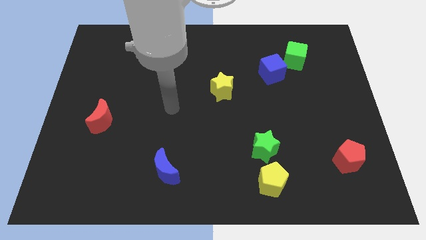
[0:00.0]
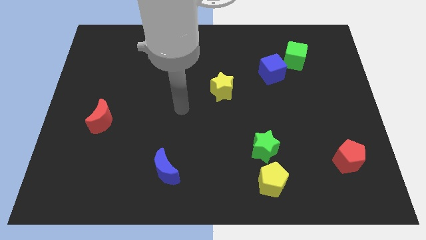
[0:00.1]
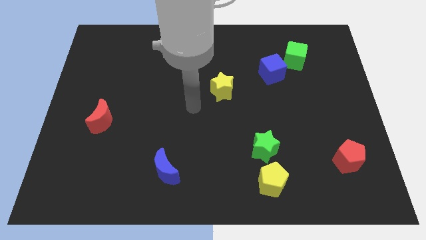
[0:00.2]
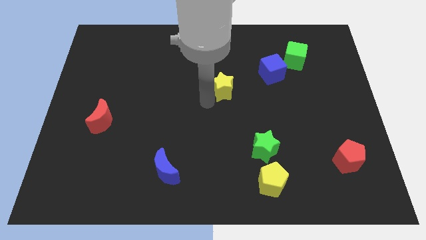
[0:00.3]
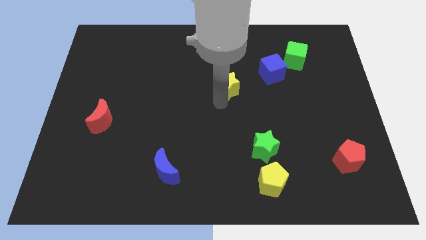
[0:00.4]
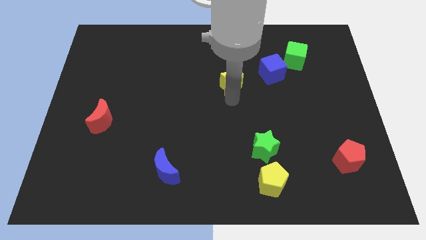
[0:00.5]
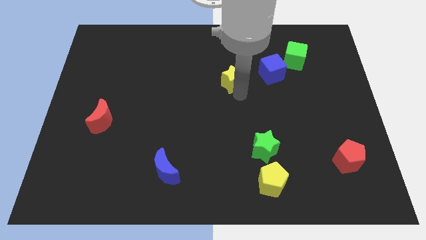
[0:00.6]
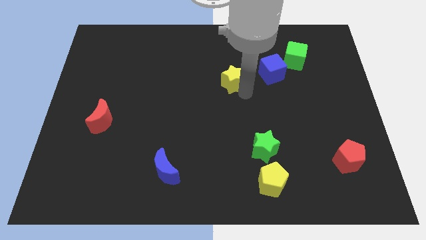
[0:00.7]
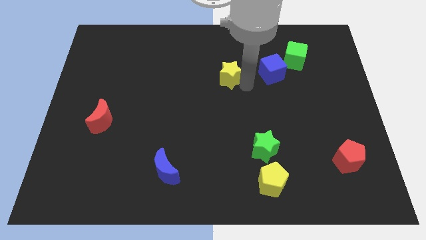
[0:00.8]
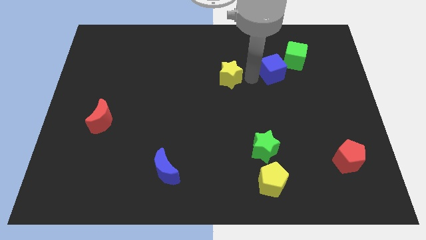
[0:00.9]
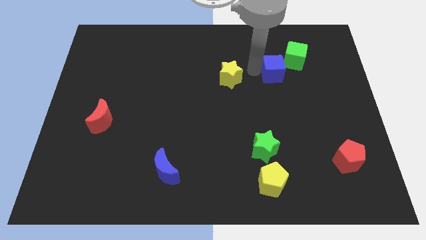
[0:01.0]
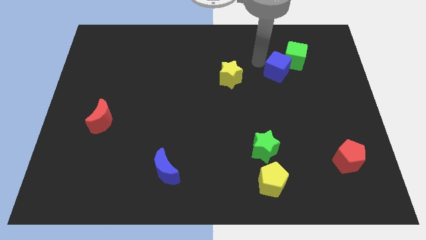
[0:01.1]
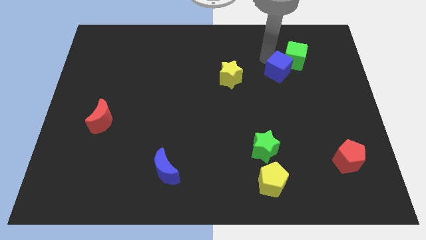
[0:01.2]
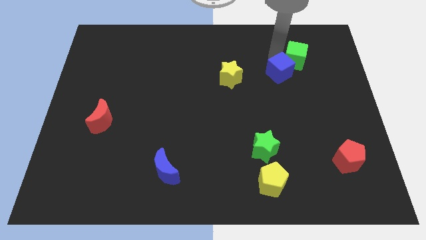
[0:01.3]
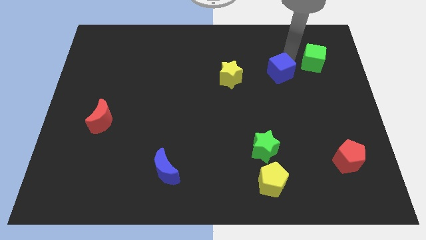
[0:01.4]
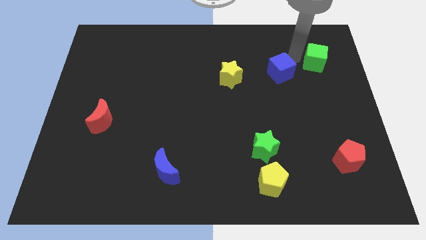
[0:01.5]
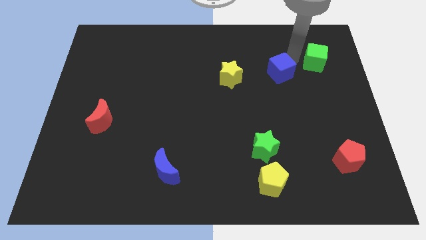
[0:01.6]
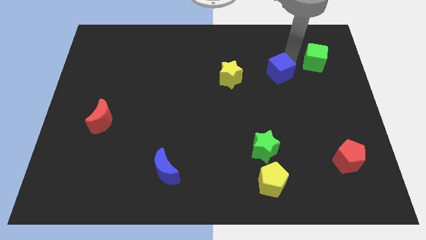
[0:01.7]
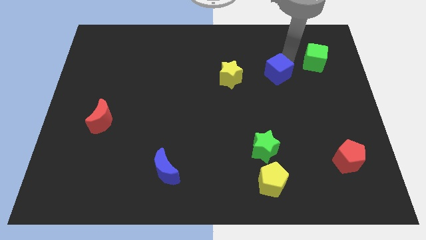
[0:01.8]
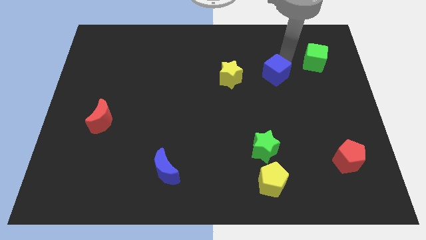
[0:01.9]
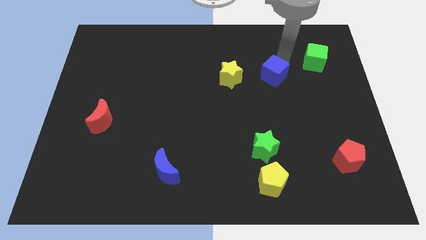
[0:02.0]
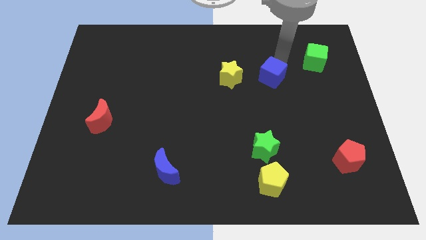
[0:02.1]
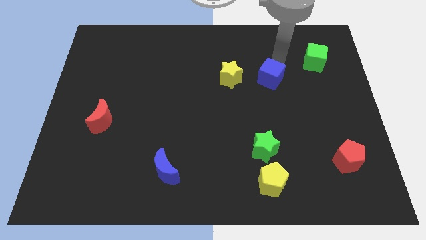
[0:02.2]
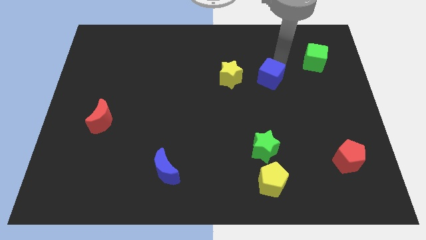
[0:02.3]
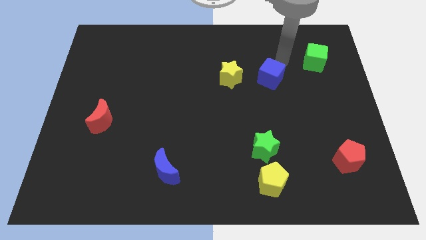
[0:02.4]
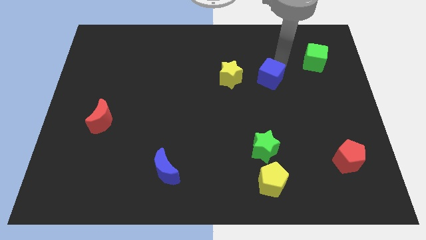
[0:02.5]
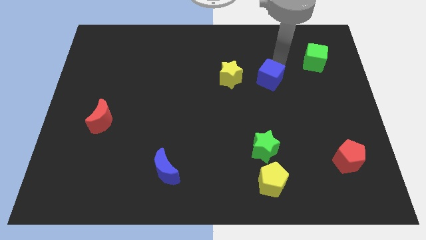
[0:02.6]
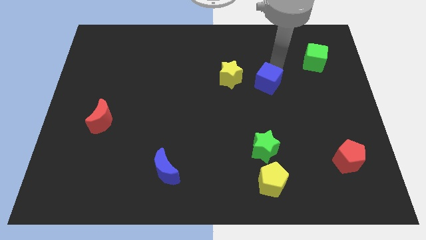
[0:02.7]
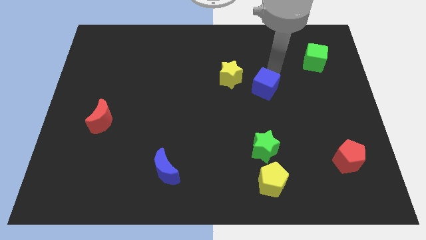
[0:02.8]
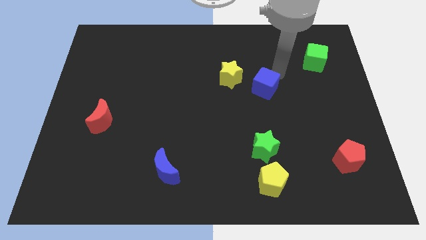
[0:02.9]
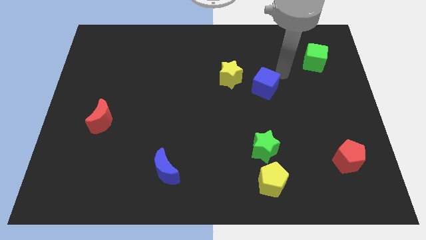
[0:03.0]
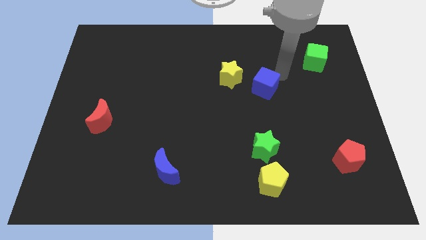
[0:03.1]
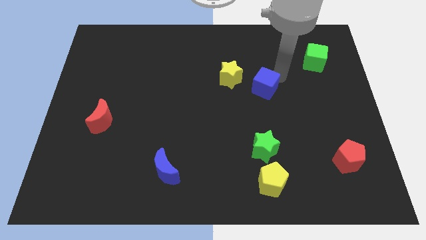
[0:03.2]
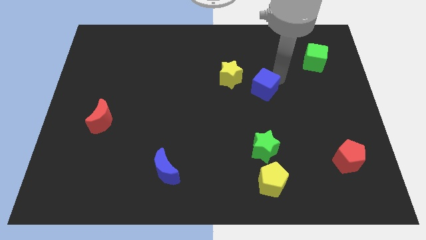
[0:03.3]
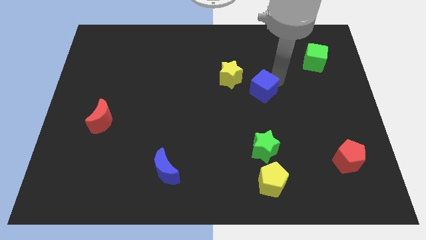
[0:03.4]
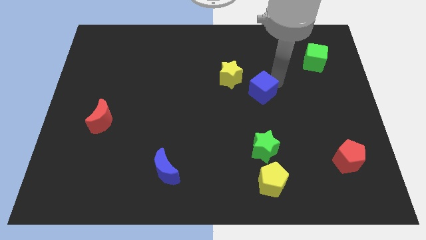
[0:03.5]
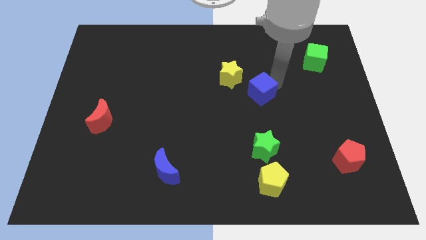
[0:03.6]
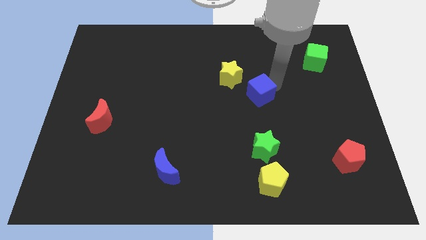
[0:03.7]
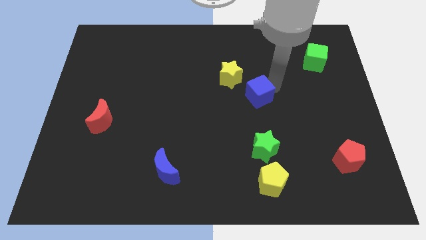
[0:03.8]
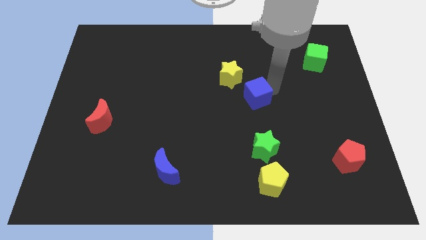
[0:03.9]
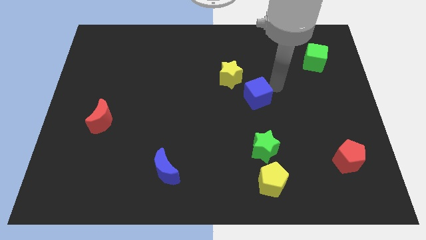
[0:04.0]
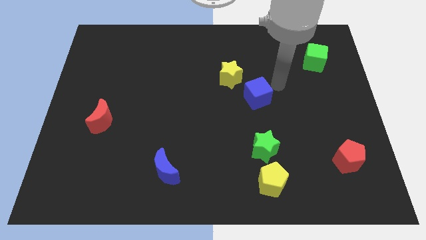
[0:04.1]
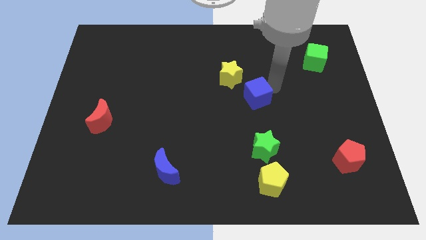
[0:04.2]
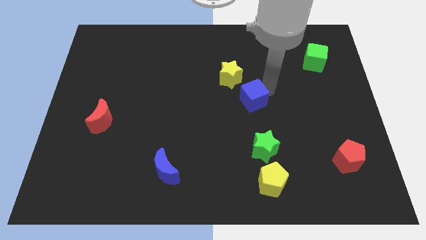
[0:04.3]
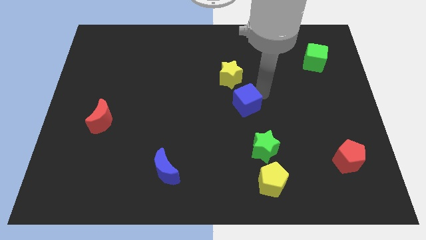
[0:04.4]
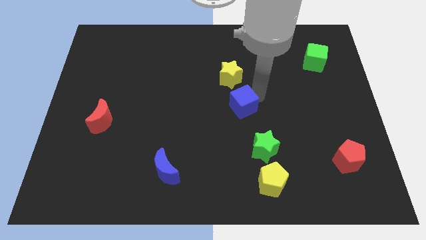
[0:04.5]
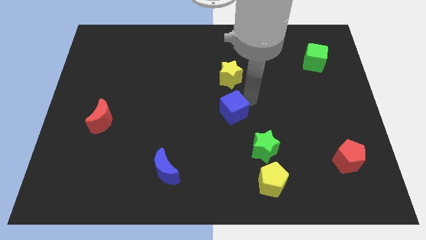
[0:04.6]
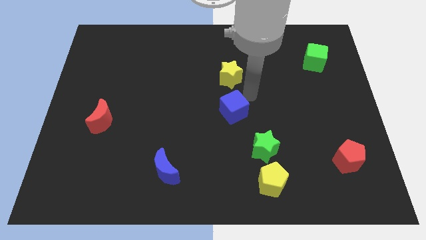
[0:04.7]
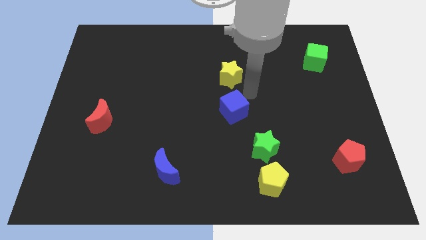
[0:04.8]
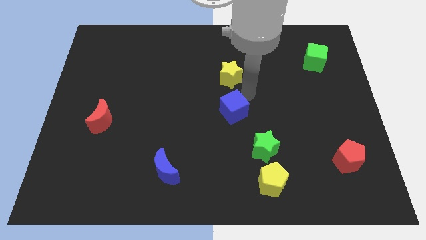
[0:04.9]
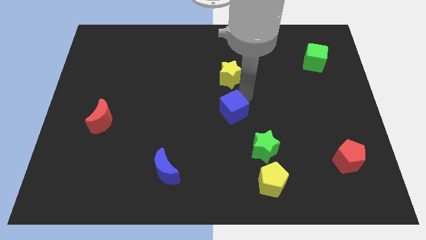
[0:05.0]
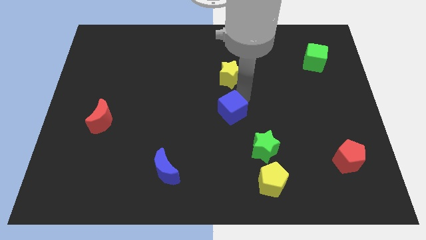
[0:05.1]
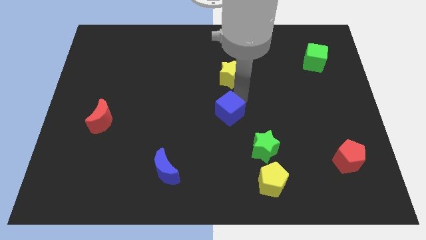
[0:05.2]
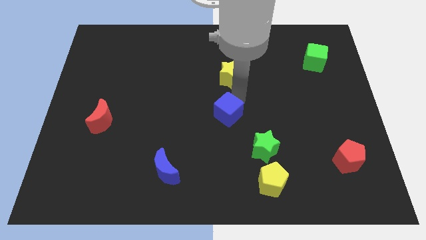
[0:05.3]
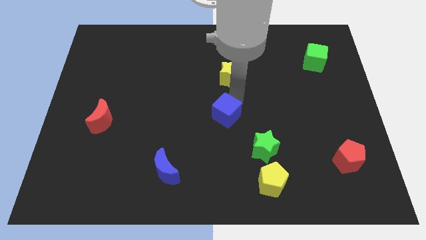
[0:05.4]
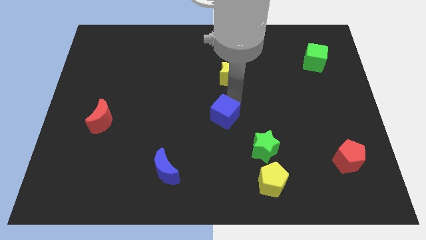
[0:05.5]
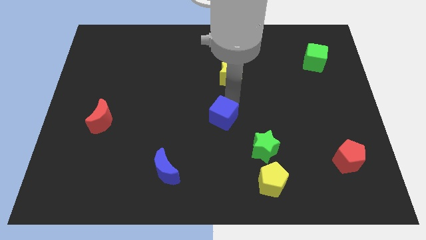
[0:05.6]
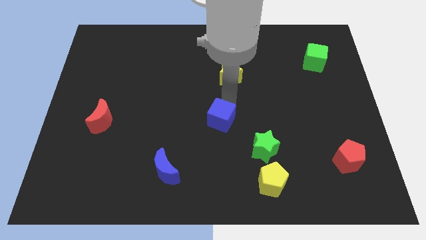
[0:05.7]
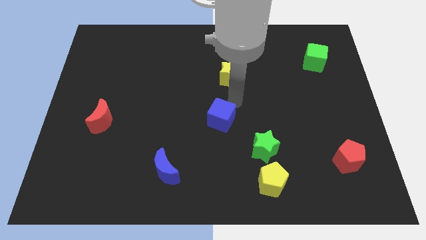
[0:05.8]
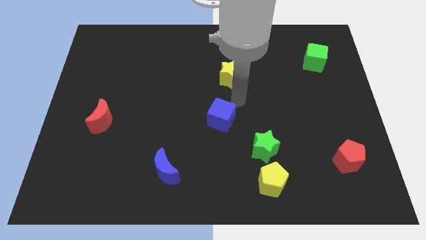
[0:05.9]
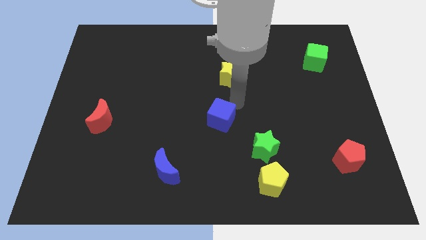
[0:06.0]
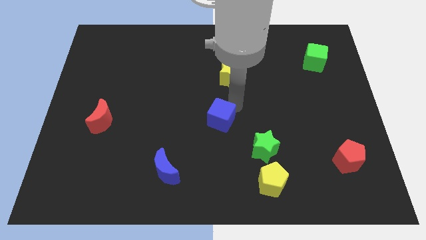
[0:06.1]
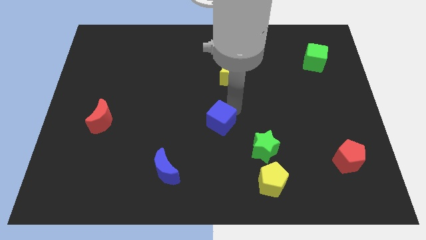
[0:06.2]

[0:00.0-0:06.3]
push the blue cube diagonally down and to the left

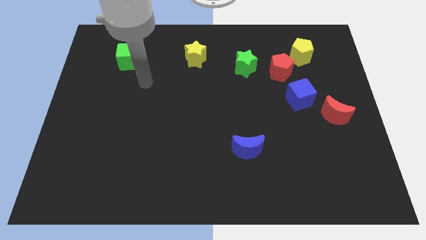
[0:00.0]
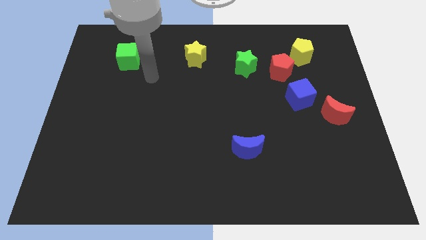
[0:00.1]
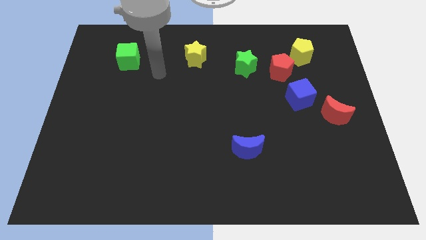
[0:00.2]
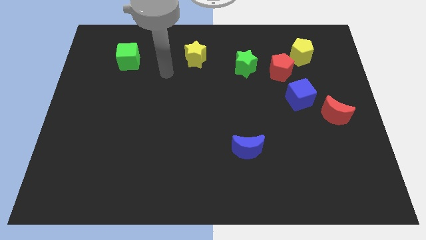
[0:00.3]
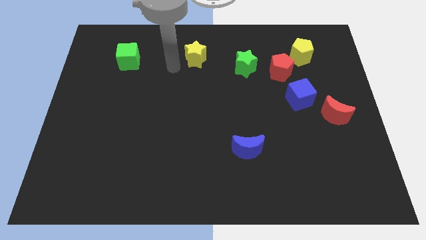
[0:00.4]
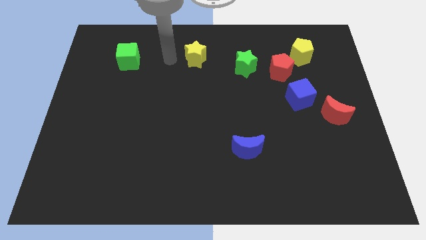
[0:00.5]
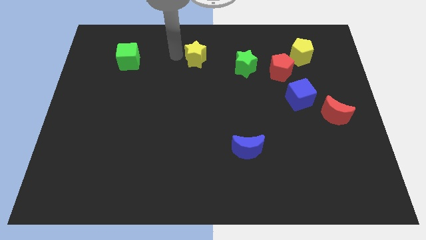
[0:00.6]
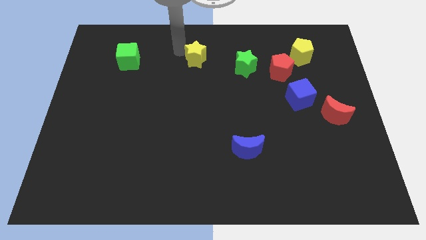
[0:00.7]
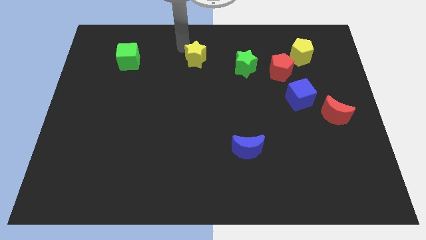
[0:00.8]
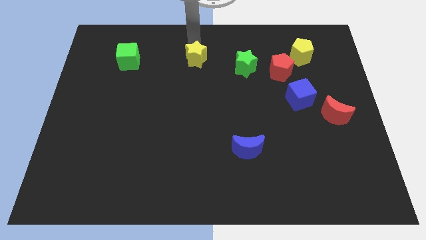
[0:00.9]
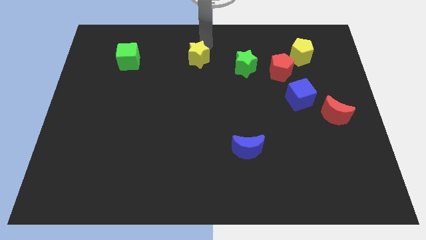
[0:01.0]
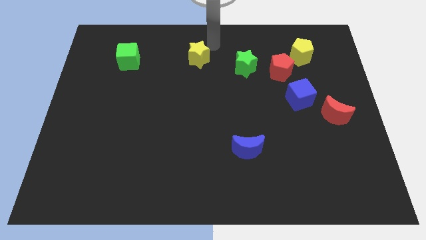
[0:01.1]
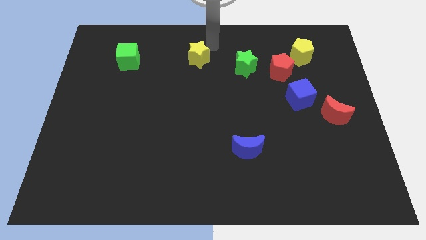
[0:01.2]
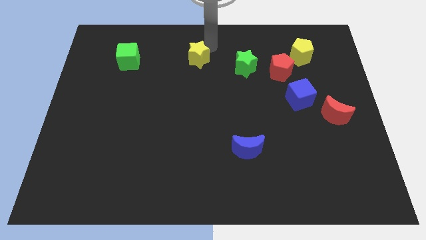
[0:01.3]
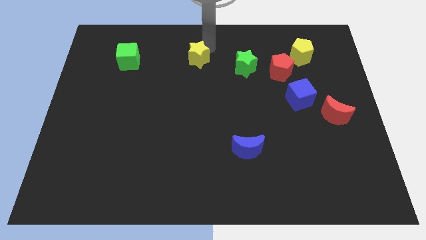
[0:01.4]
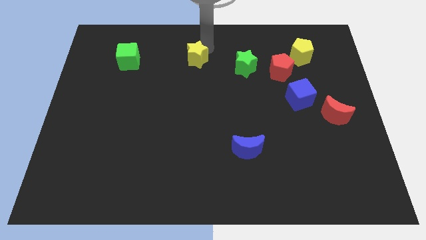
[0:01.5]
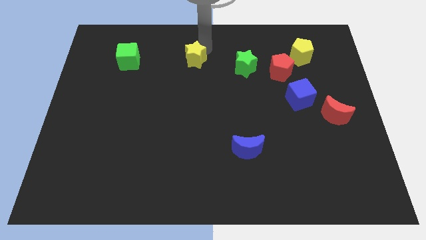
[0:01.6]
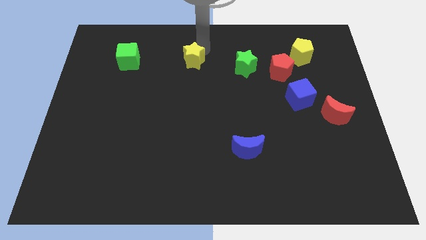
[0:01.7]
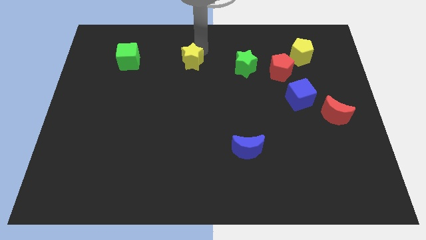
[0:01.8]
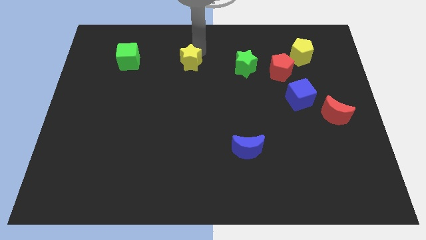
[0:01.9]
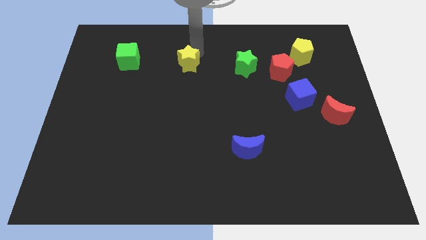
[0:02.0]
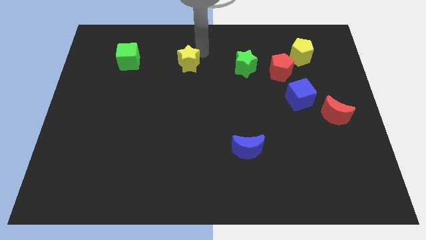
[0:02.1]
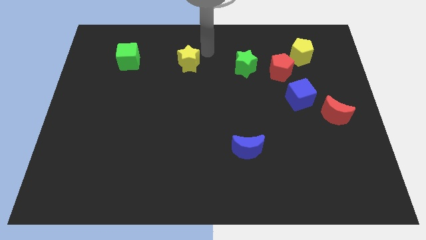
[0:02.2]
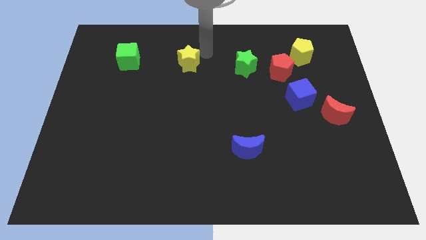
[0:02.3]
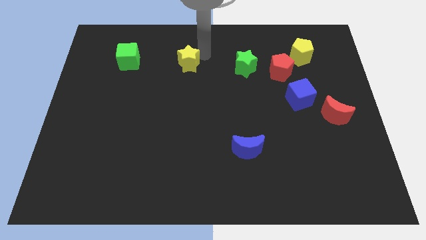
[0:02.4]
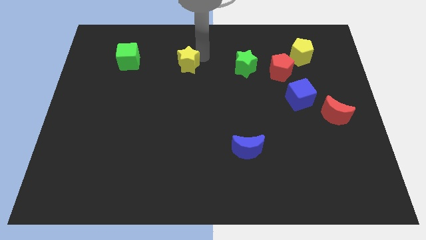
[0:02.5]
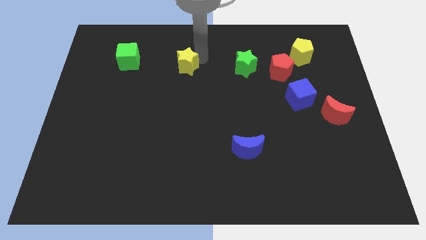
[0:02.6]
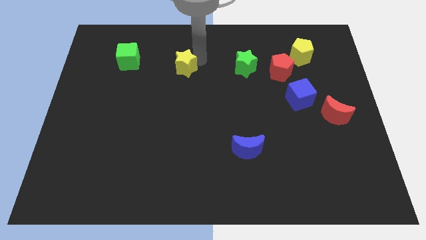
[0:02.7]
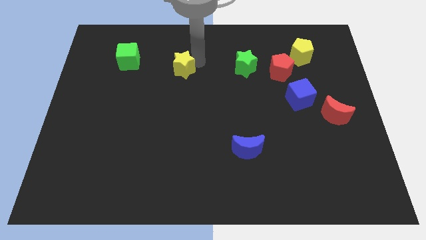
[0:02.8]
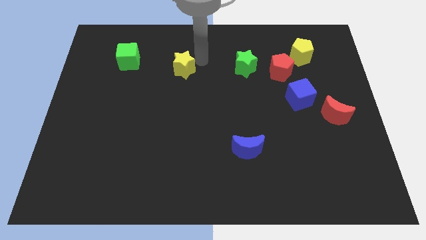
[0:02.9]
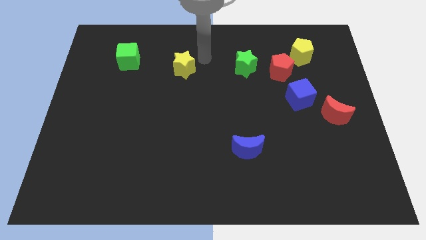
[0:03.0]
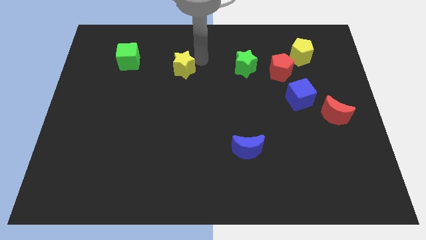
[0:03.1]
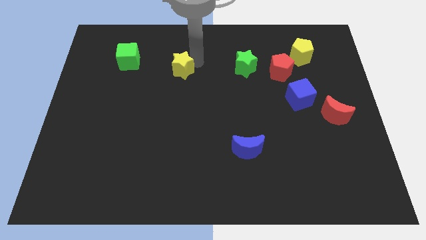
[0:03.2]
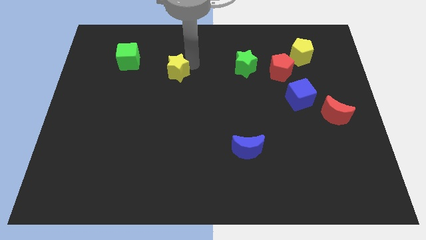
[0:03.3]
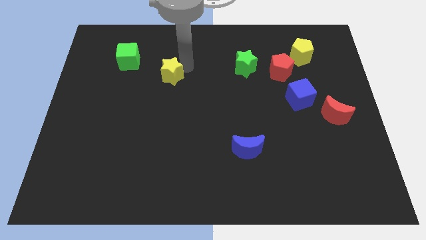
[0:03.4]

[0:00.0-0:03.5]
slide the yellow star a bit down and to the left
